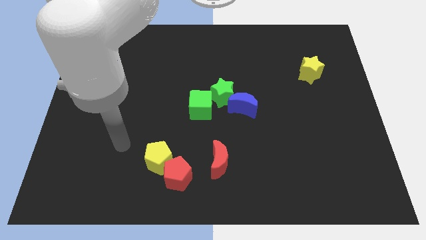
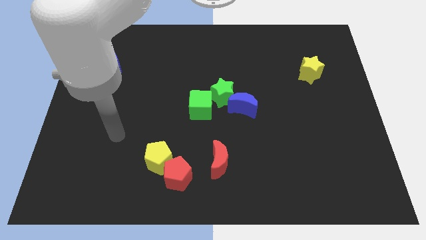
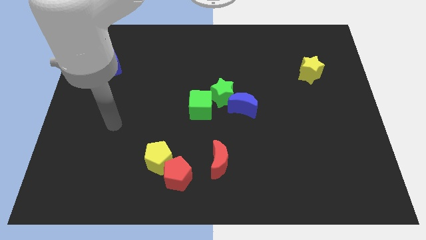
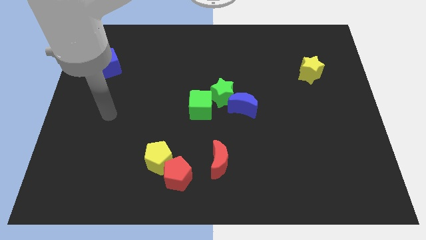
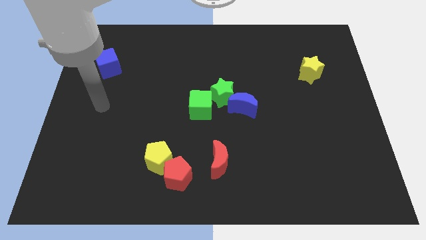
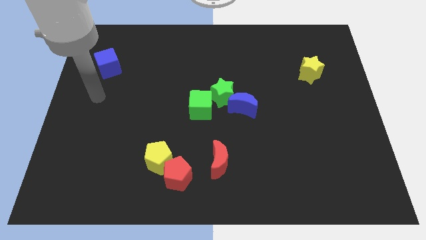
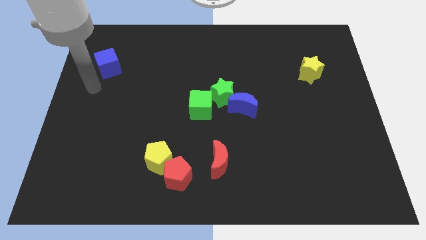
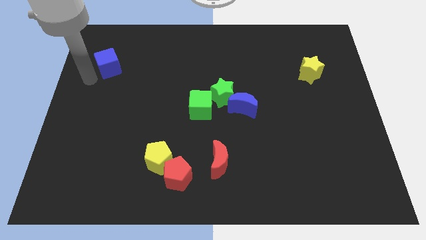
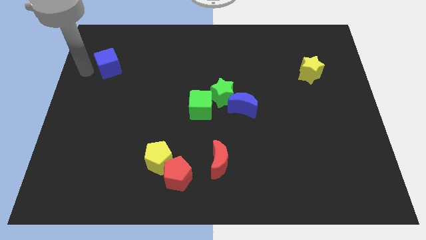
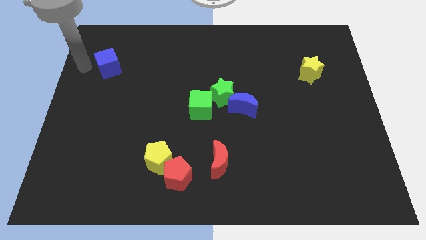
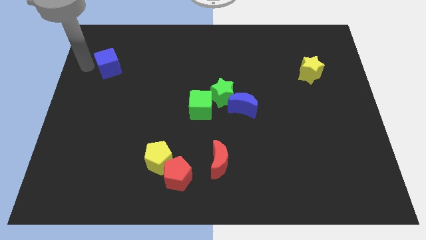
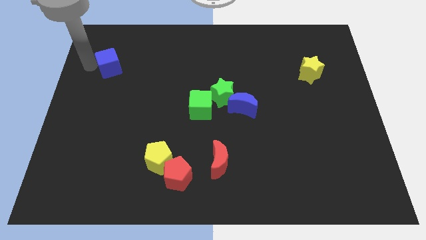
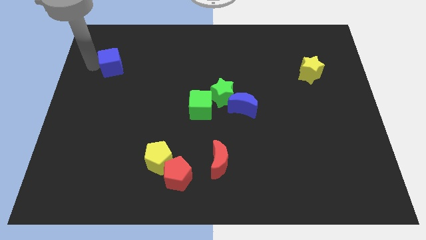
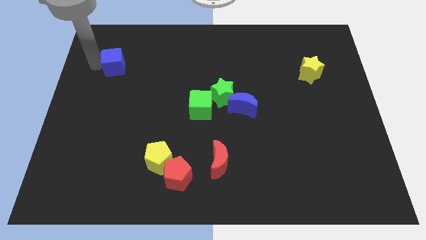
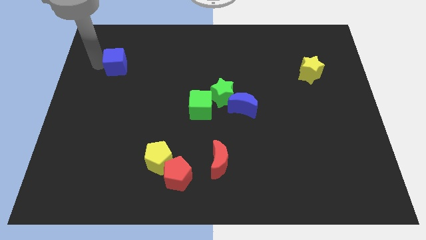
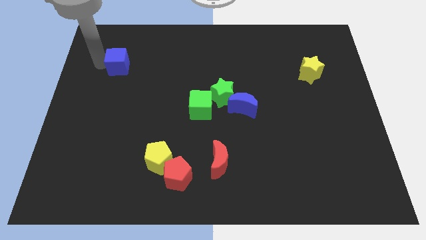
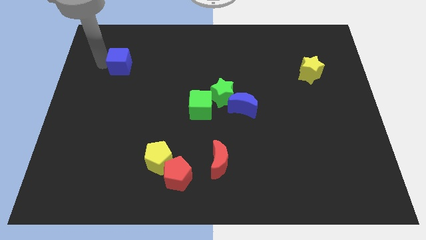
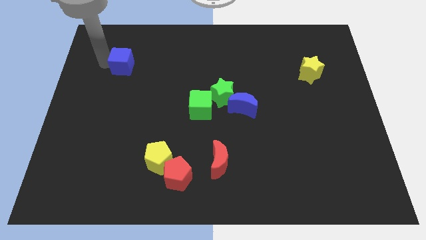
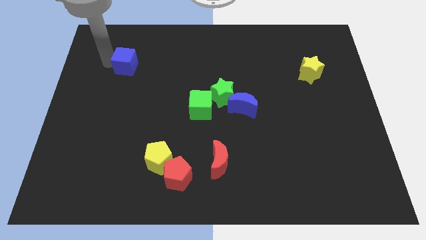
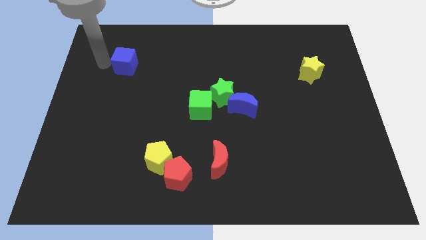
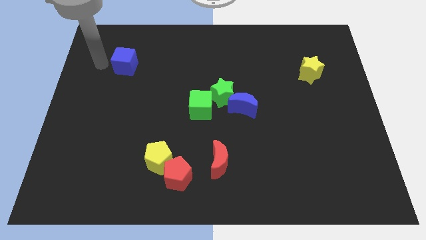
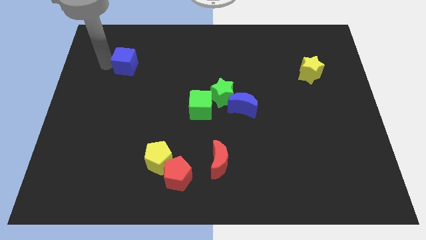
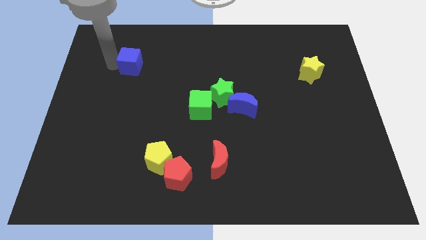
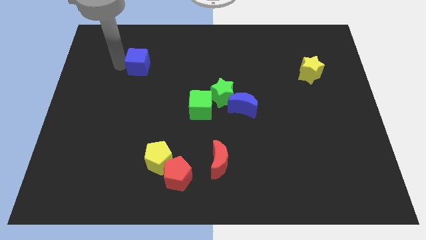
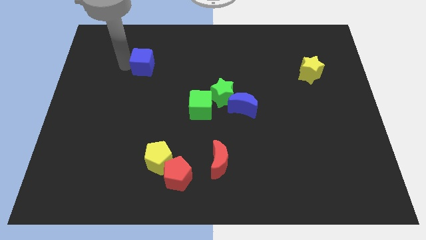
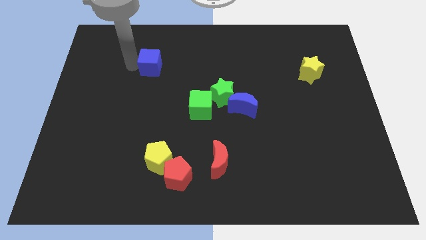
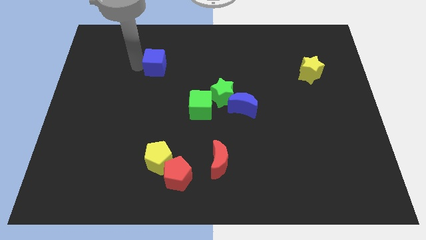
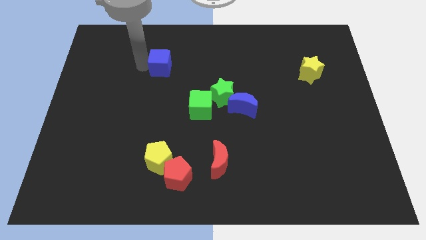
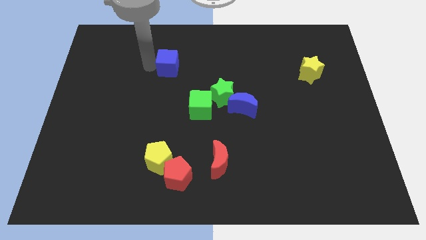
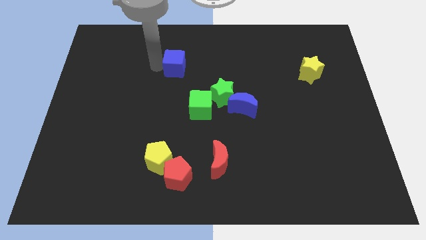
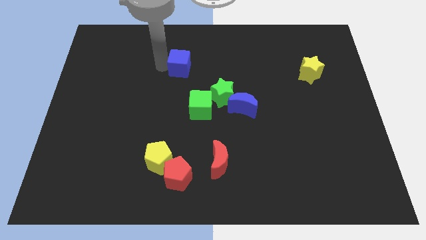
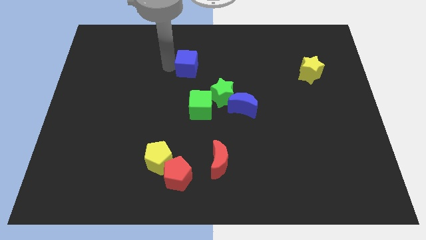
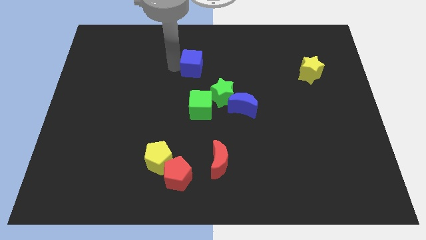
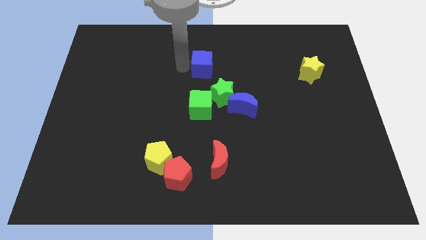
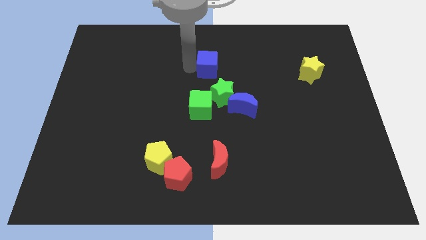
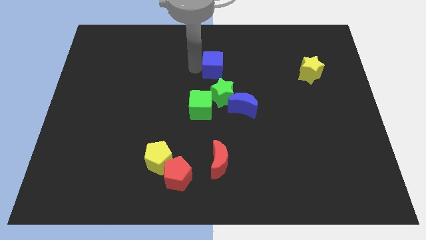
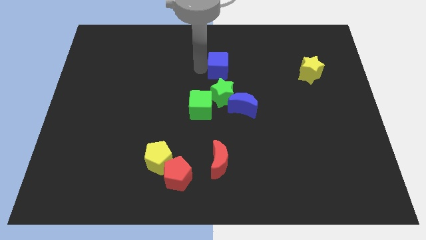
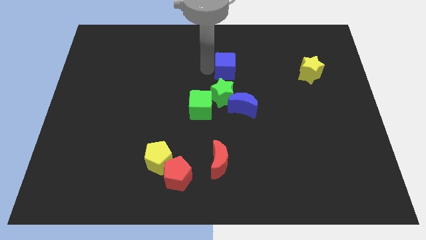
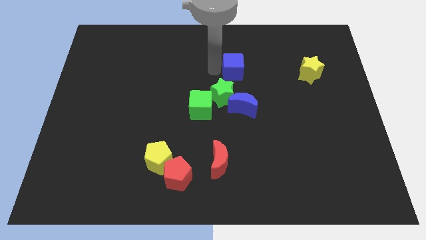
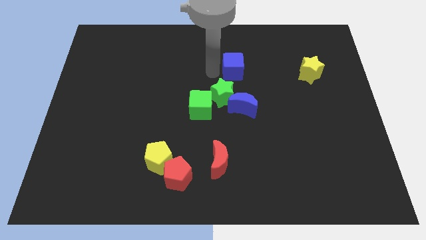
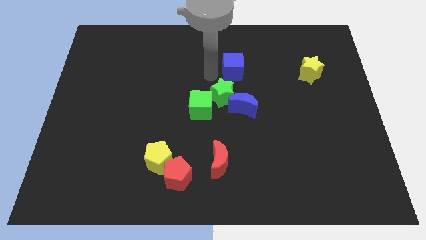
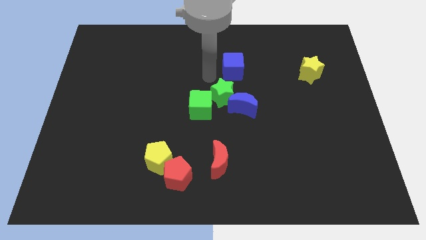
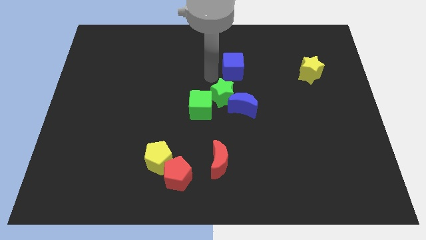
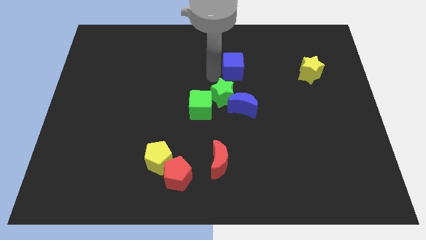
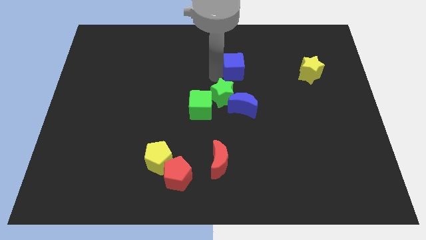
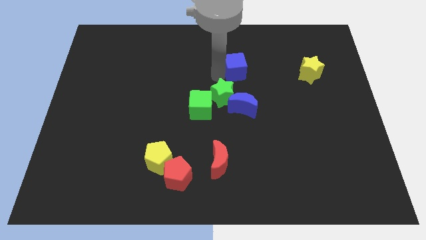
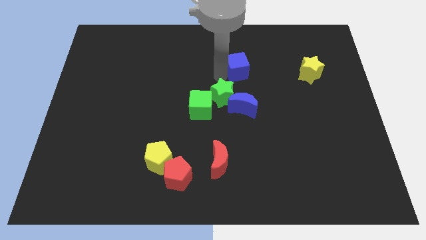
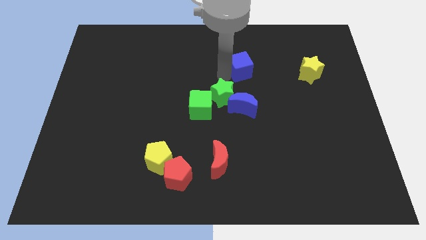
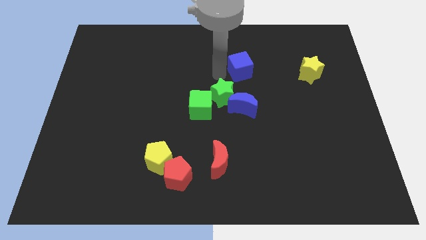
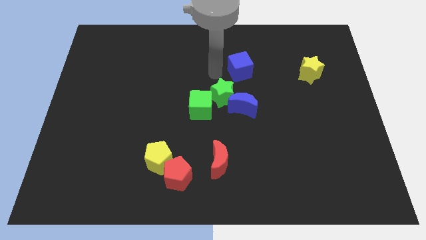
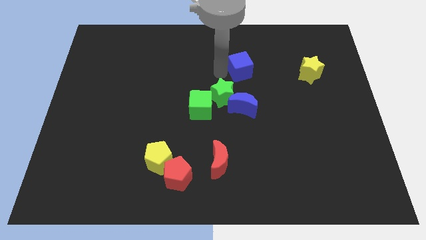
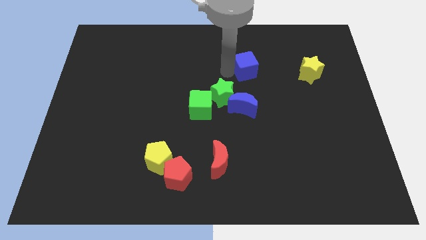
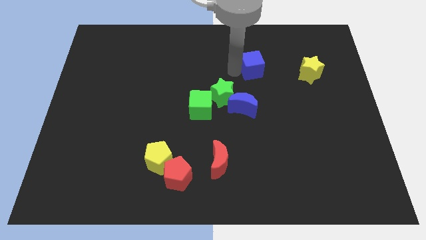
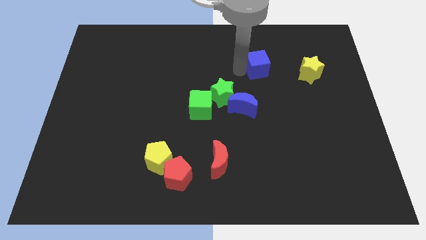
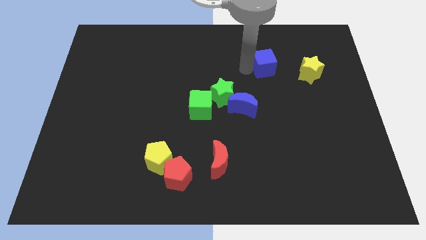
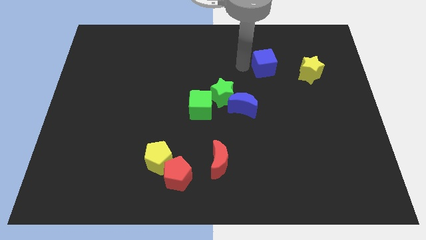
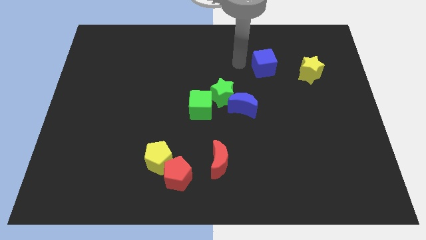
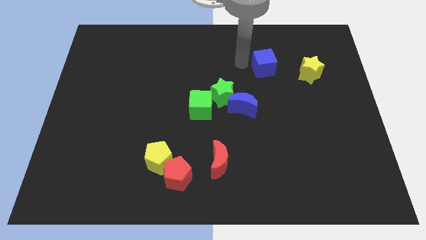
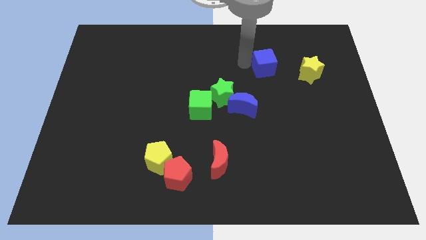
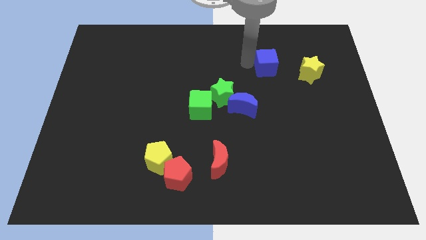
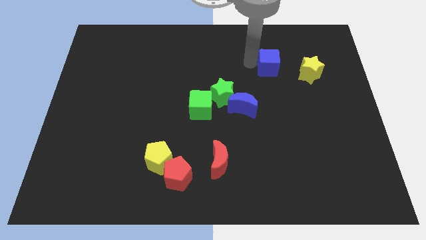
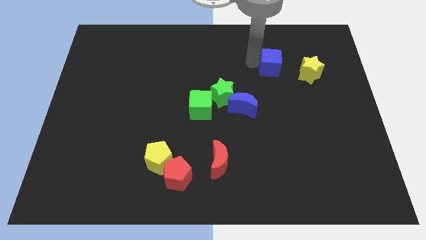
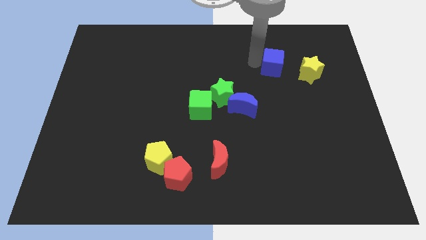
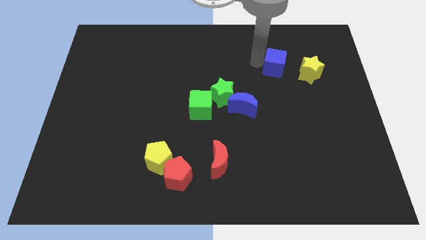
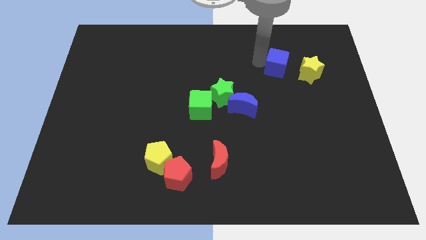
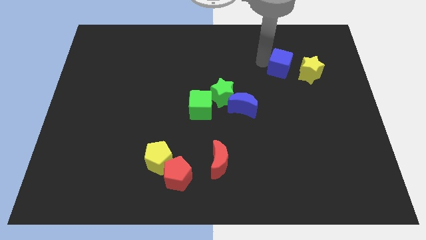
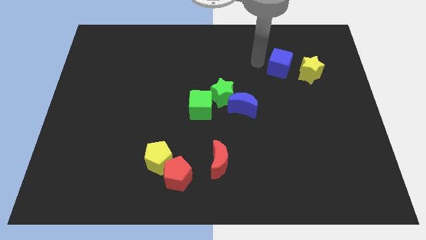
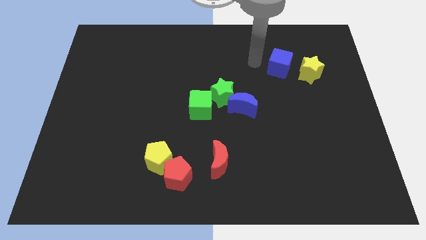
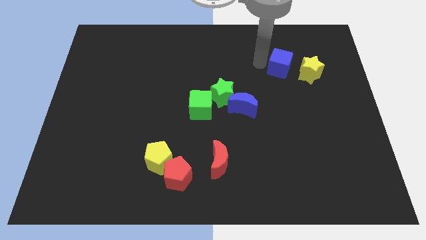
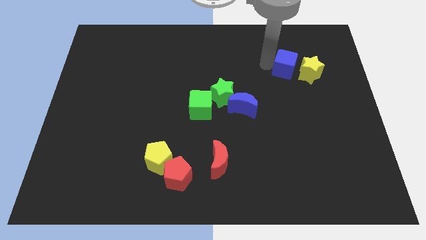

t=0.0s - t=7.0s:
slide the blue cube close to the yellow star

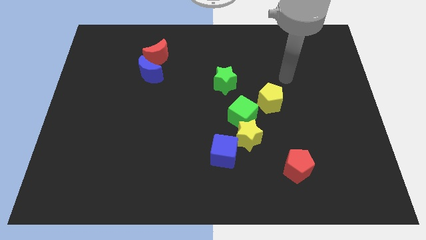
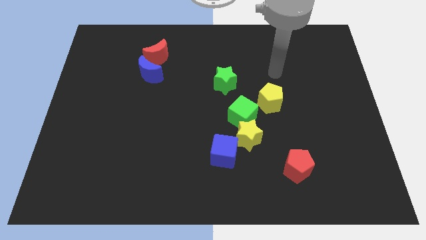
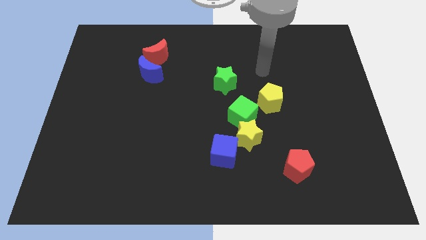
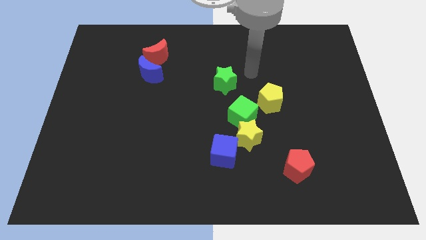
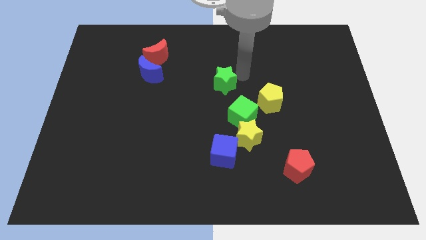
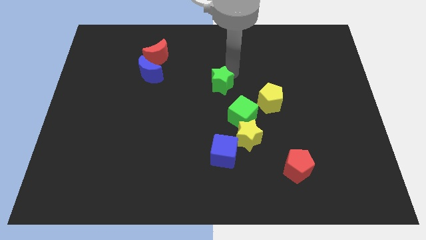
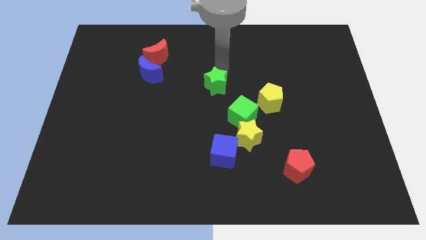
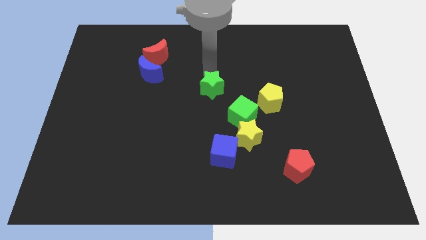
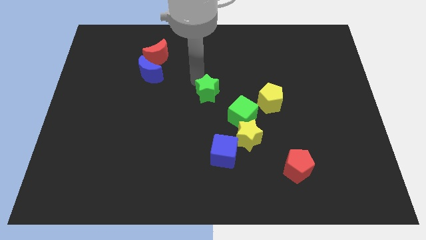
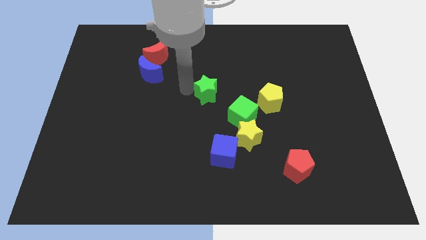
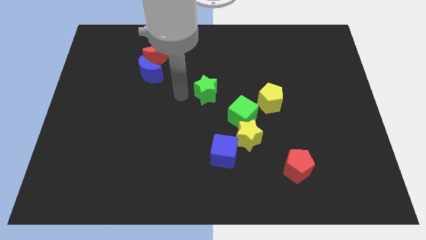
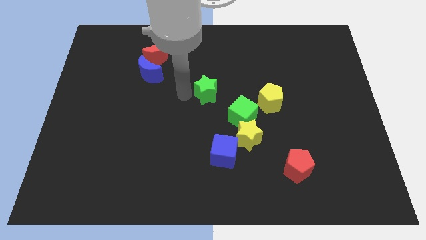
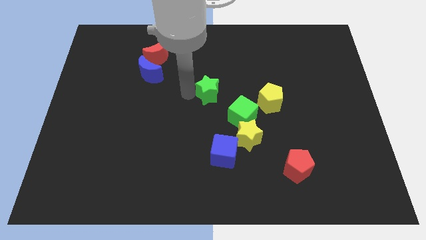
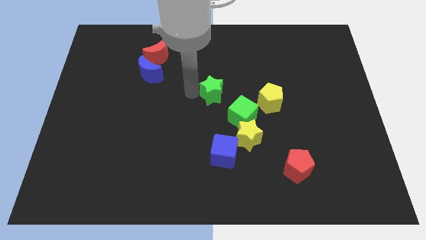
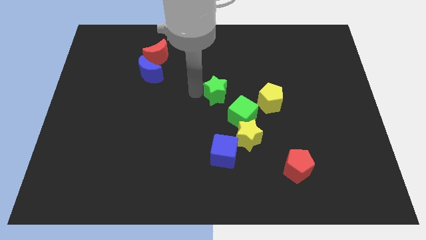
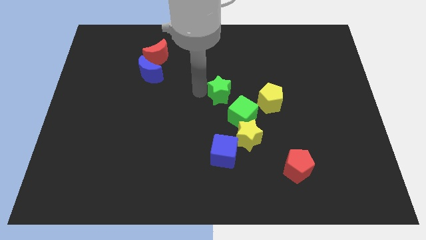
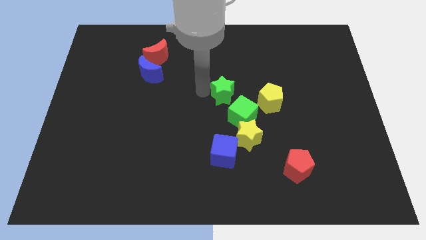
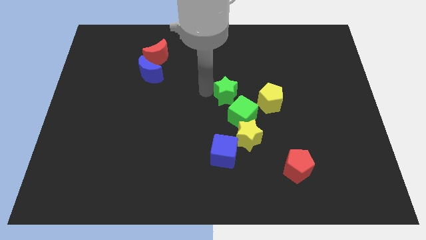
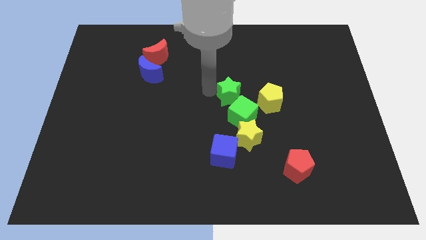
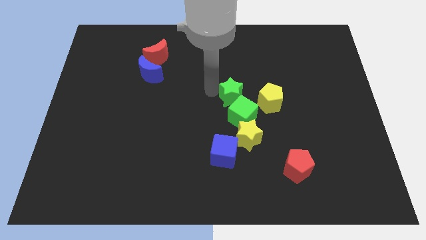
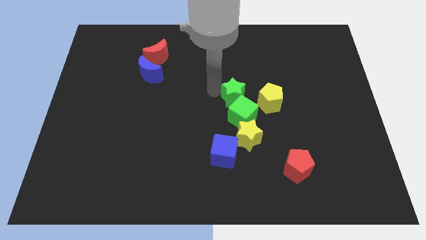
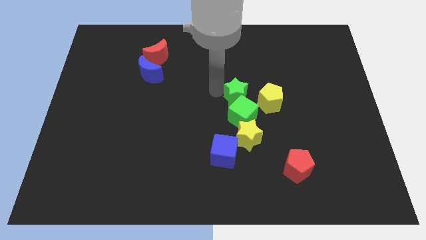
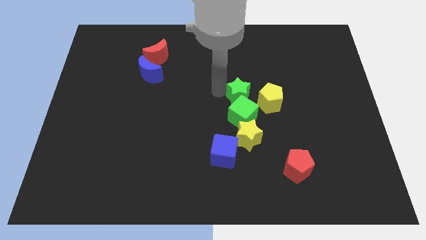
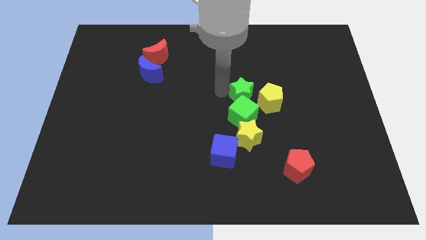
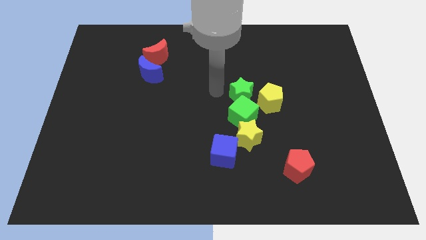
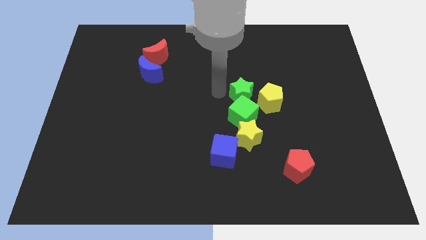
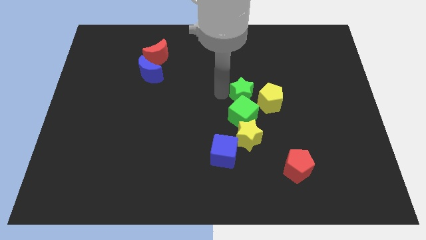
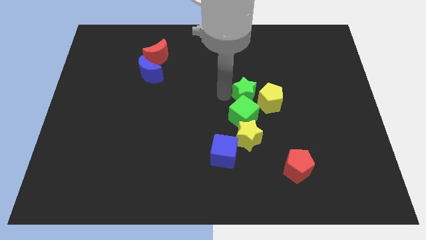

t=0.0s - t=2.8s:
push the green star next to the yellow pentagon
